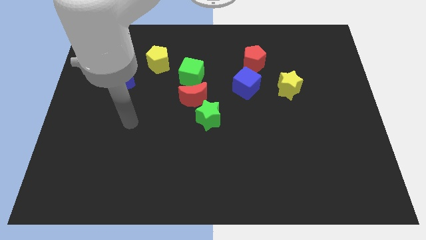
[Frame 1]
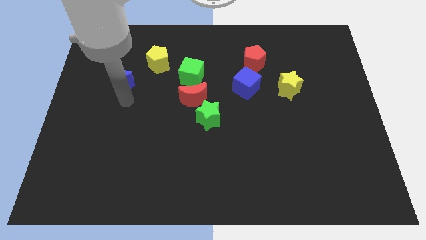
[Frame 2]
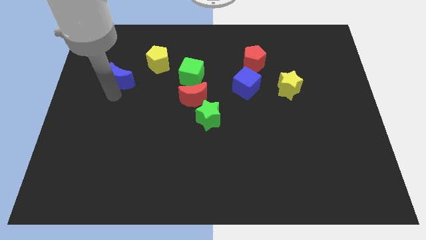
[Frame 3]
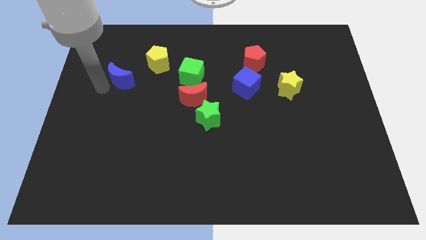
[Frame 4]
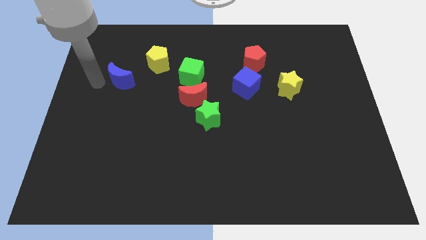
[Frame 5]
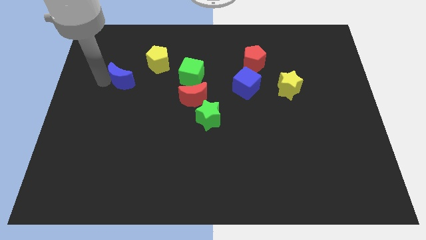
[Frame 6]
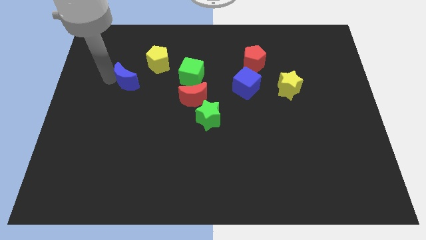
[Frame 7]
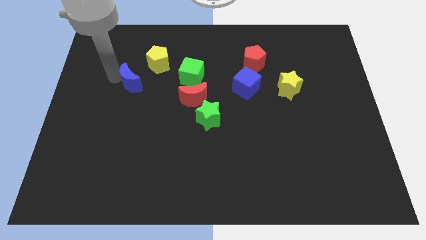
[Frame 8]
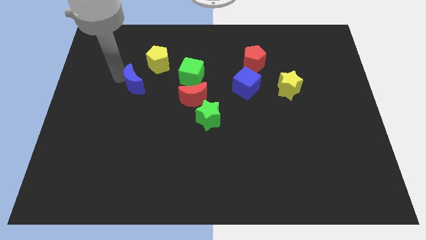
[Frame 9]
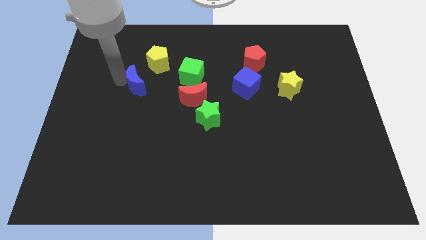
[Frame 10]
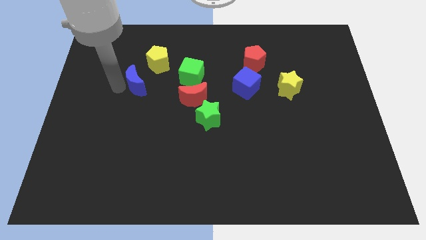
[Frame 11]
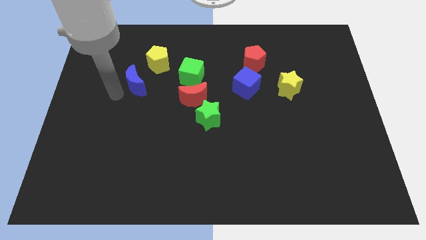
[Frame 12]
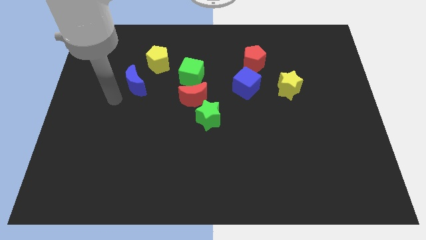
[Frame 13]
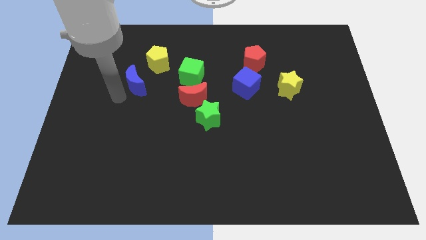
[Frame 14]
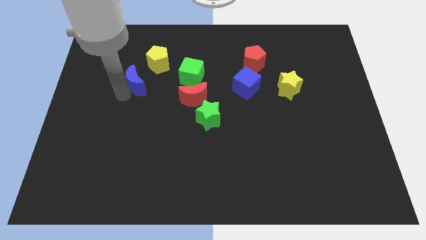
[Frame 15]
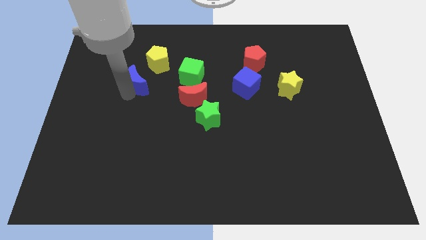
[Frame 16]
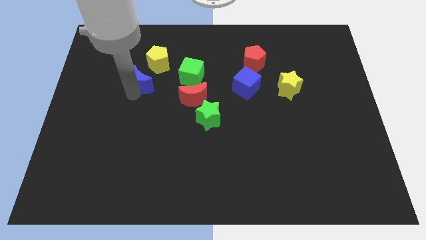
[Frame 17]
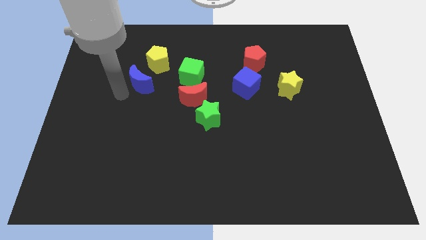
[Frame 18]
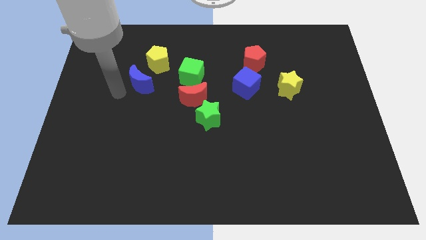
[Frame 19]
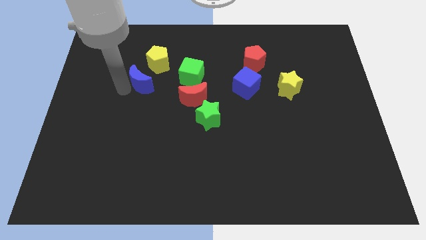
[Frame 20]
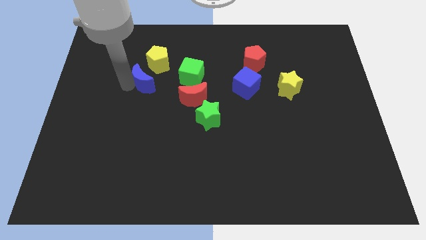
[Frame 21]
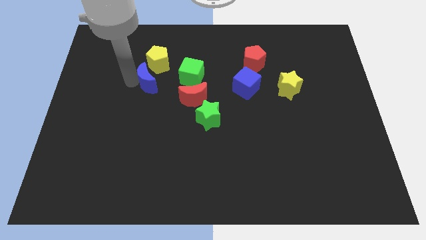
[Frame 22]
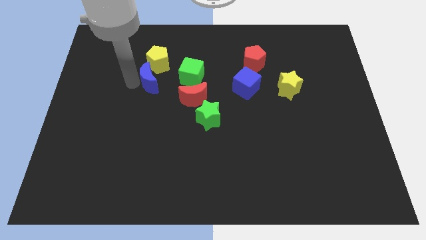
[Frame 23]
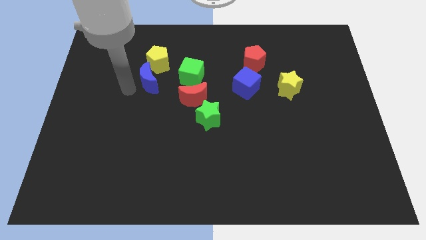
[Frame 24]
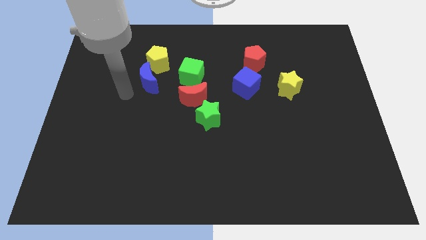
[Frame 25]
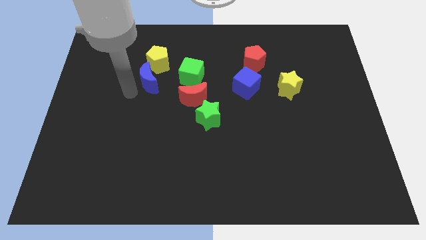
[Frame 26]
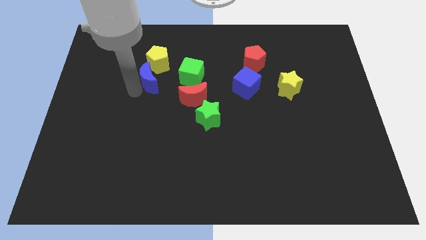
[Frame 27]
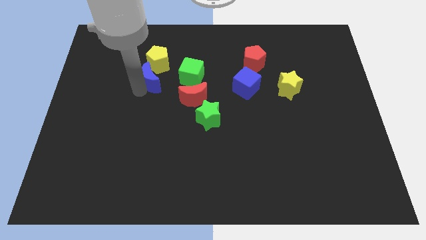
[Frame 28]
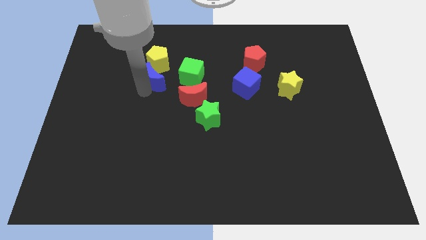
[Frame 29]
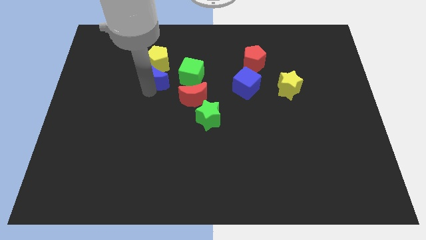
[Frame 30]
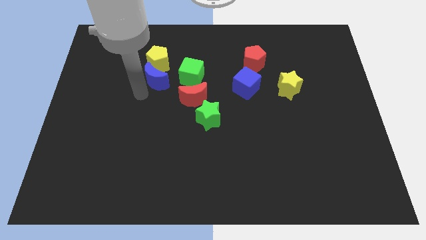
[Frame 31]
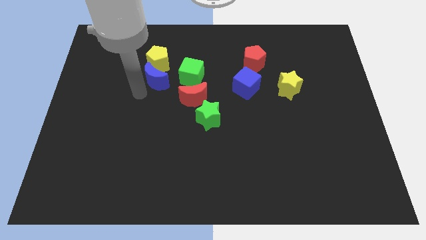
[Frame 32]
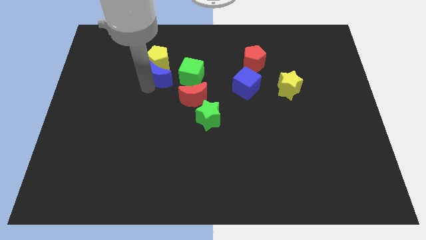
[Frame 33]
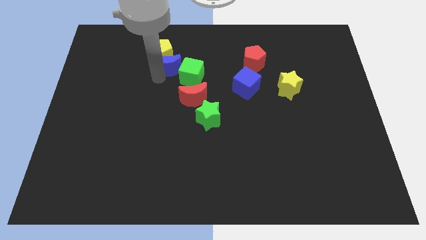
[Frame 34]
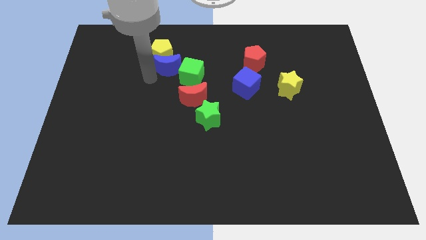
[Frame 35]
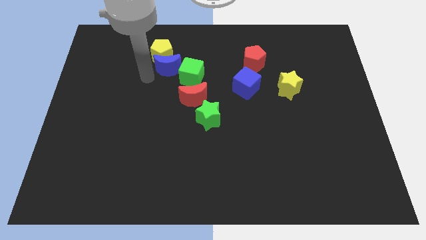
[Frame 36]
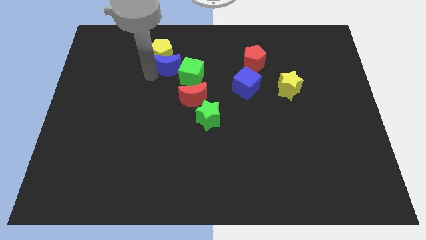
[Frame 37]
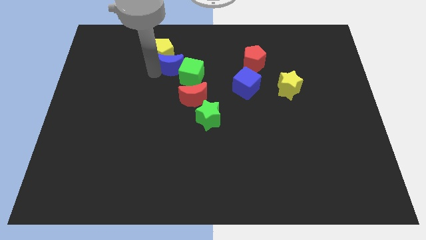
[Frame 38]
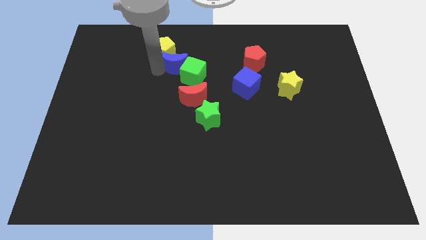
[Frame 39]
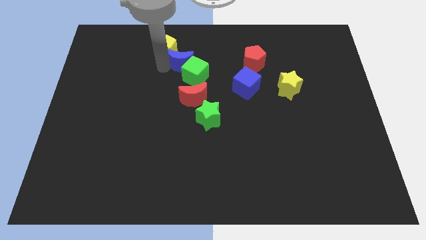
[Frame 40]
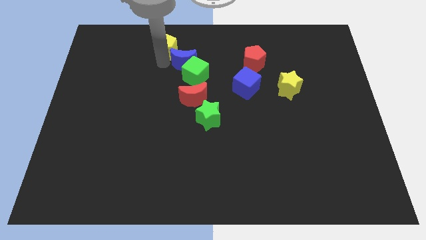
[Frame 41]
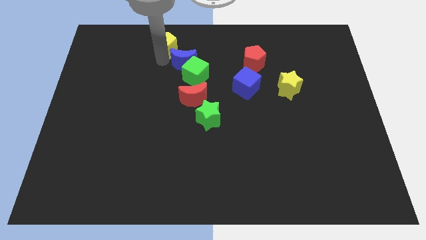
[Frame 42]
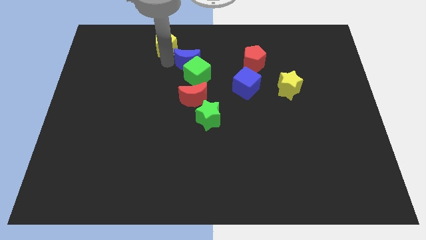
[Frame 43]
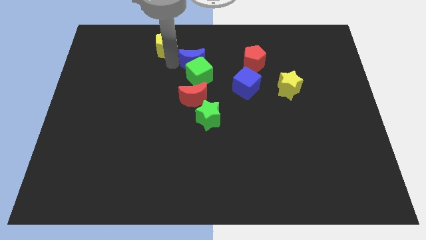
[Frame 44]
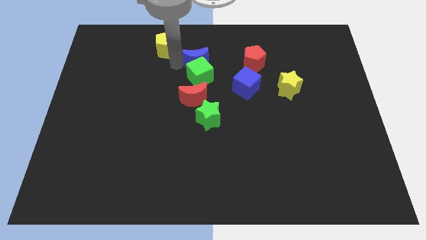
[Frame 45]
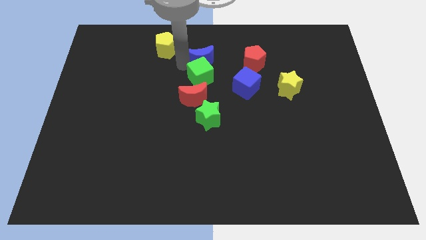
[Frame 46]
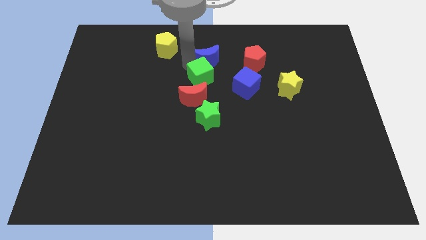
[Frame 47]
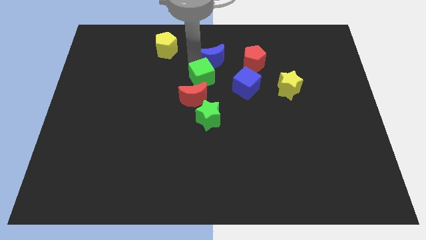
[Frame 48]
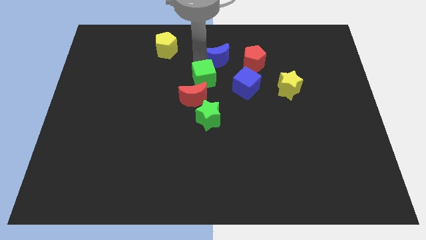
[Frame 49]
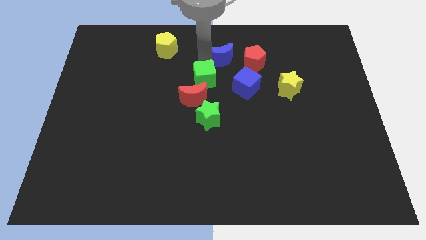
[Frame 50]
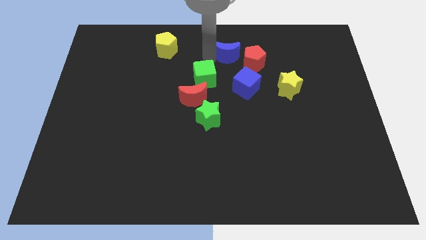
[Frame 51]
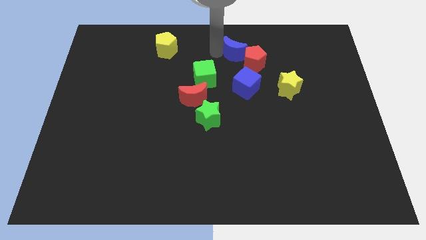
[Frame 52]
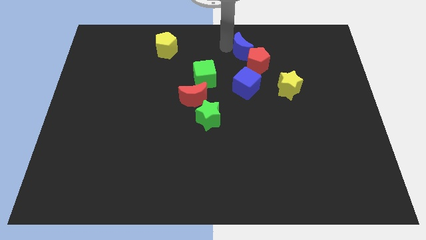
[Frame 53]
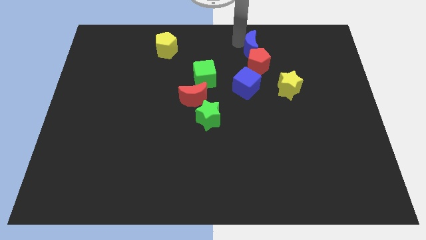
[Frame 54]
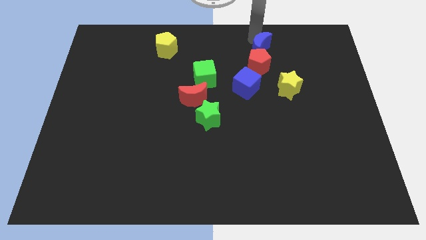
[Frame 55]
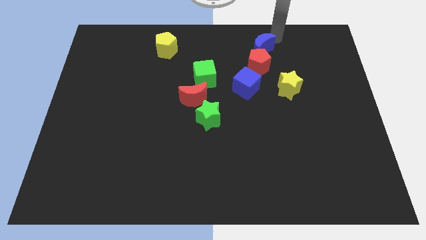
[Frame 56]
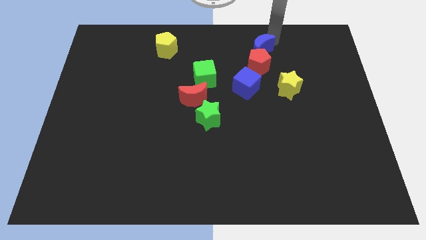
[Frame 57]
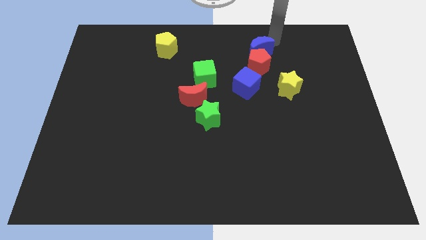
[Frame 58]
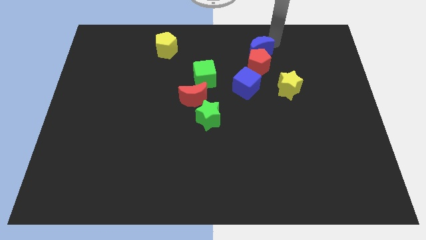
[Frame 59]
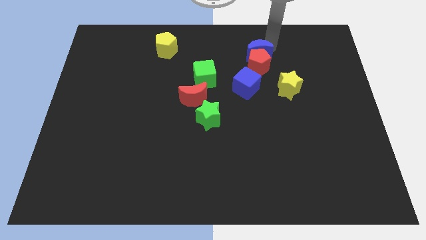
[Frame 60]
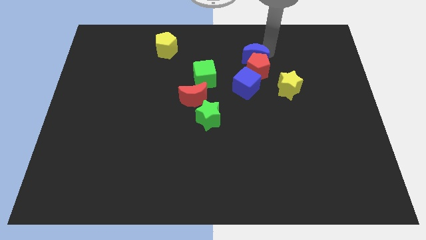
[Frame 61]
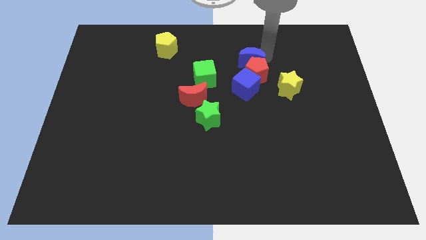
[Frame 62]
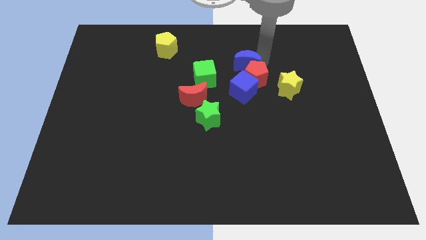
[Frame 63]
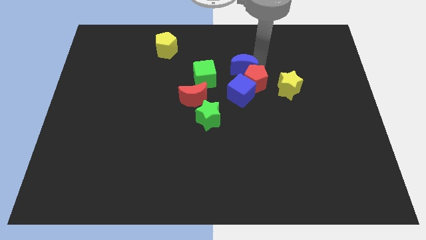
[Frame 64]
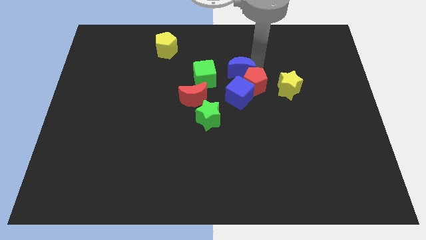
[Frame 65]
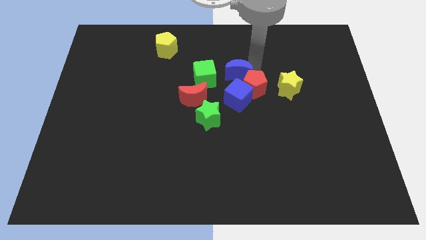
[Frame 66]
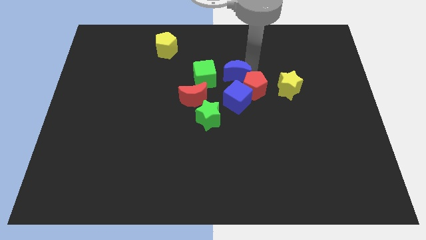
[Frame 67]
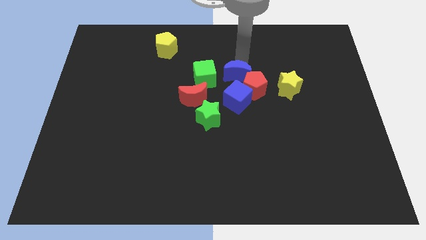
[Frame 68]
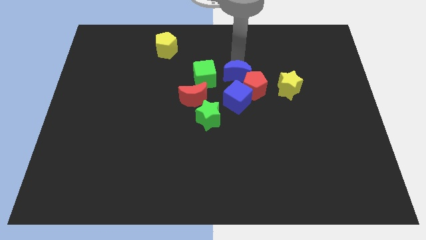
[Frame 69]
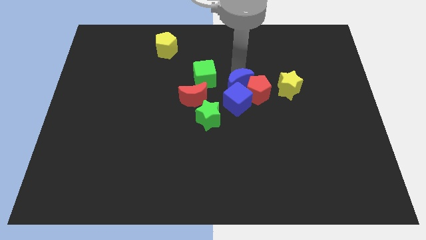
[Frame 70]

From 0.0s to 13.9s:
slide the blue moon close to the blue cube
